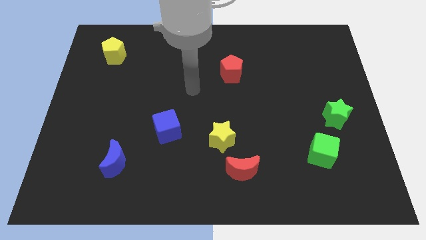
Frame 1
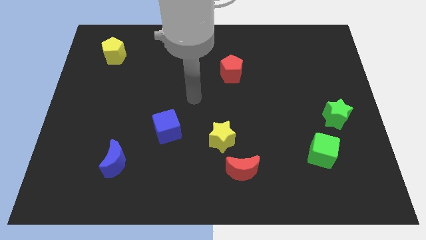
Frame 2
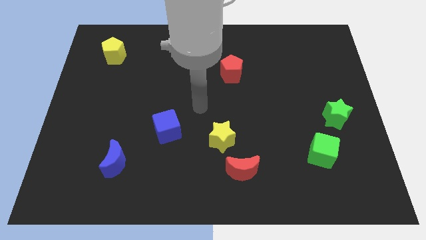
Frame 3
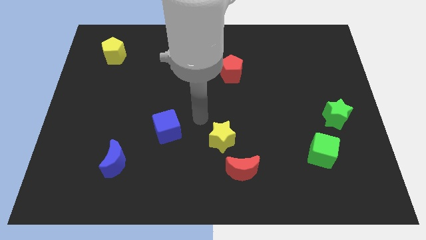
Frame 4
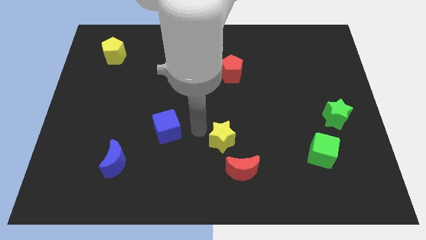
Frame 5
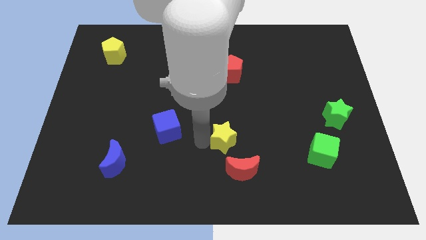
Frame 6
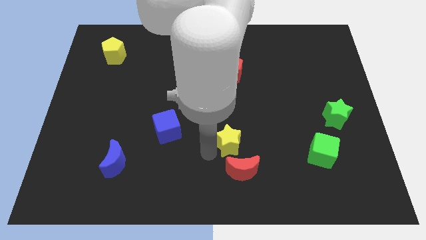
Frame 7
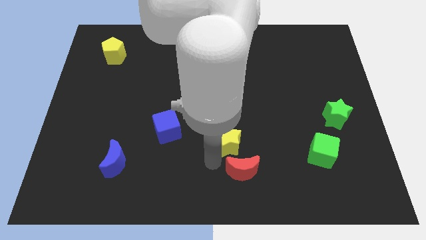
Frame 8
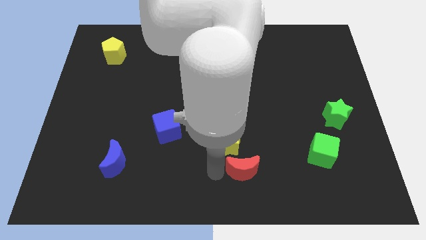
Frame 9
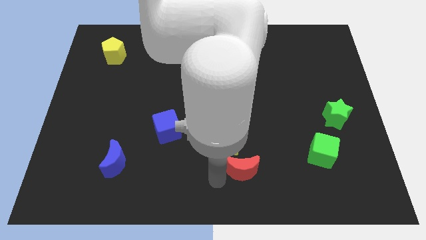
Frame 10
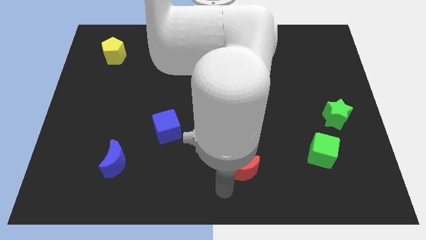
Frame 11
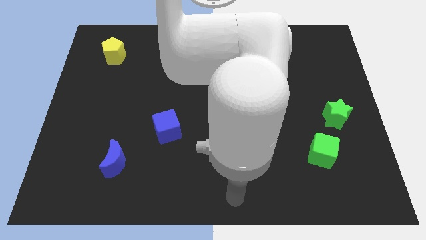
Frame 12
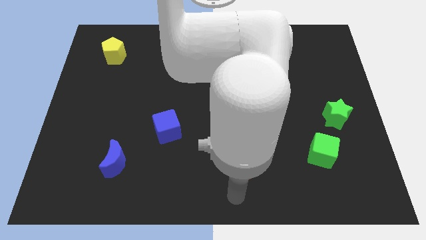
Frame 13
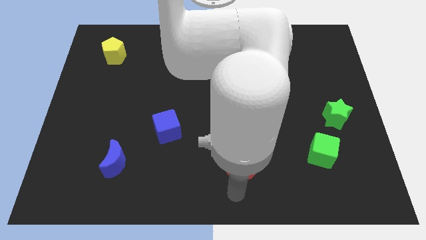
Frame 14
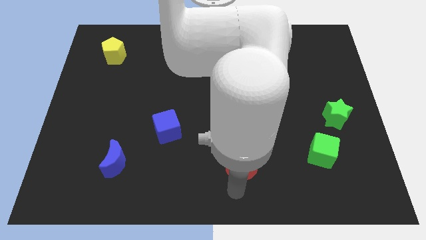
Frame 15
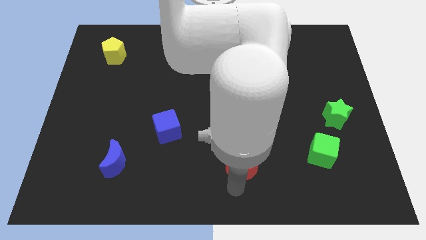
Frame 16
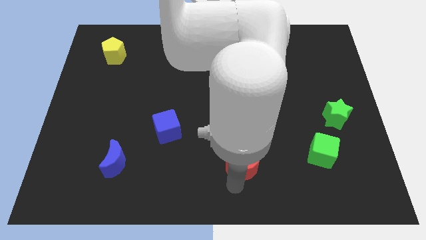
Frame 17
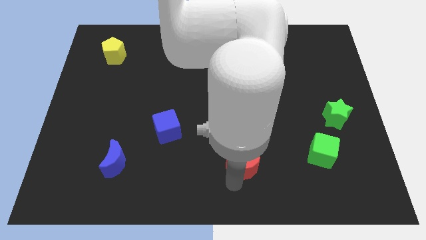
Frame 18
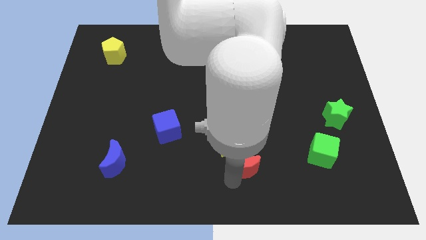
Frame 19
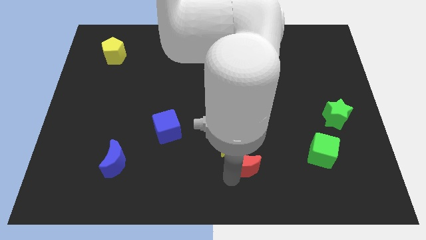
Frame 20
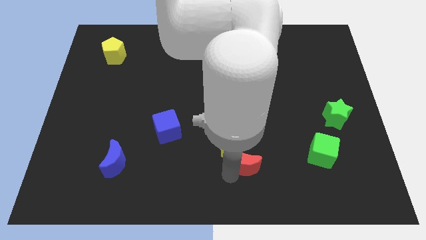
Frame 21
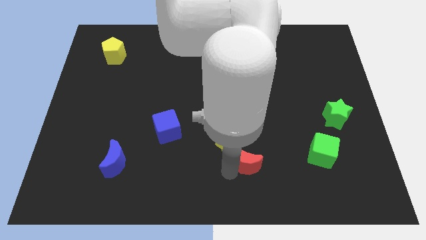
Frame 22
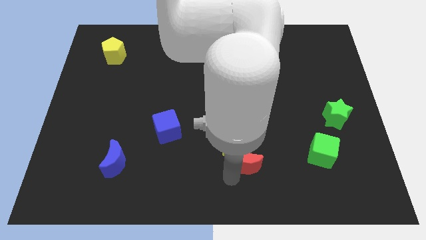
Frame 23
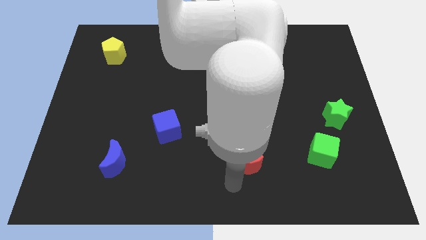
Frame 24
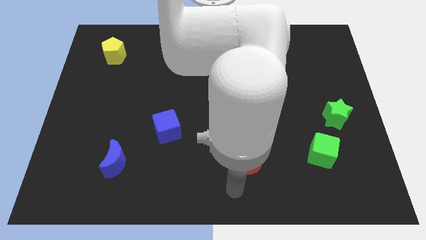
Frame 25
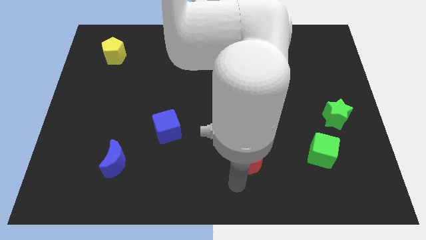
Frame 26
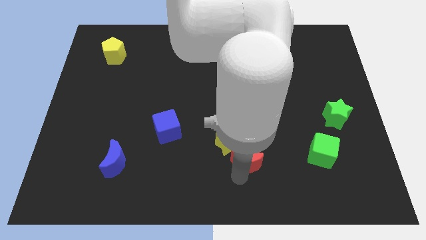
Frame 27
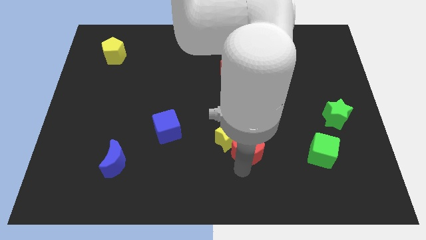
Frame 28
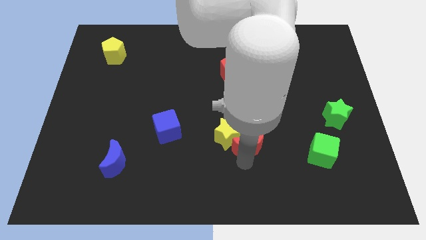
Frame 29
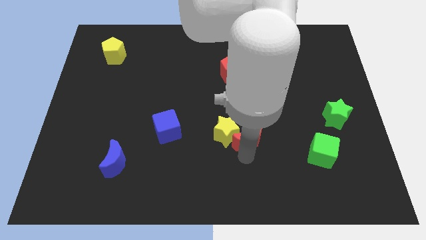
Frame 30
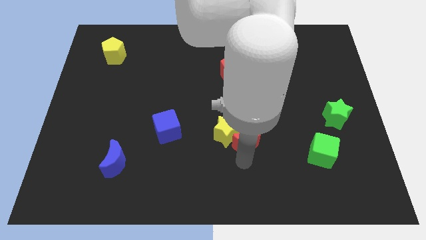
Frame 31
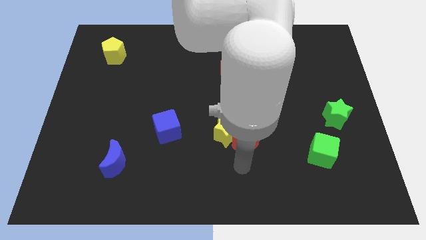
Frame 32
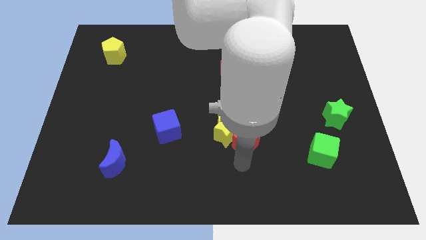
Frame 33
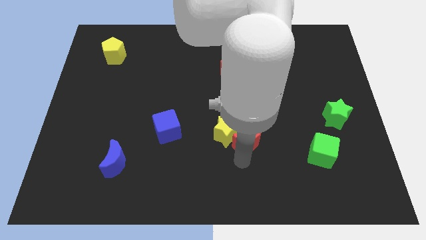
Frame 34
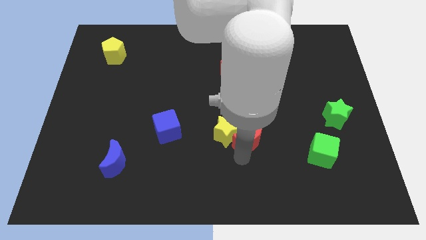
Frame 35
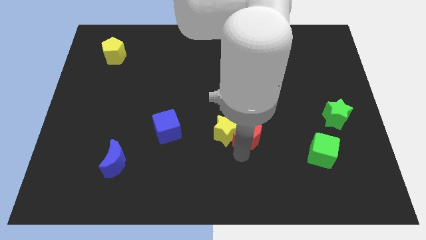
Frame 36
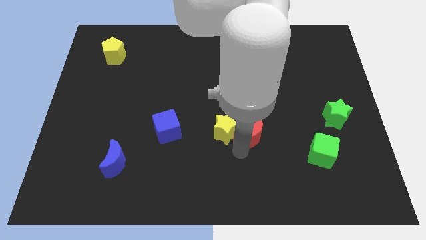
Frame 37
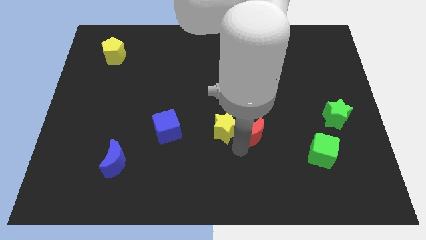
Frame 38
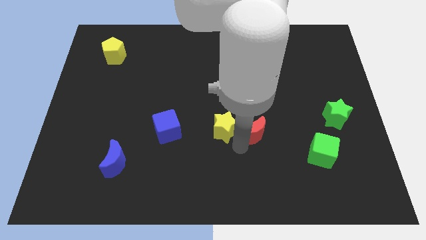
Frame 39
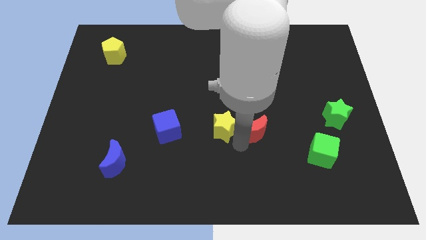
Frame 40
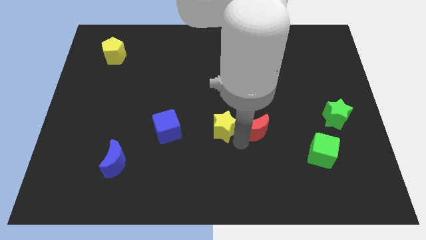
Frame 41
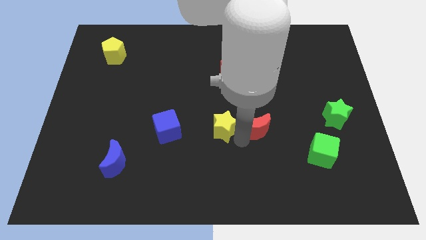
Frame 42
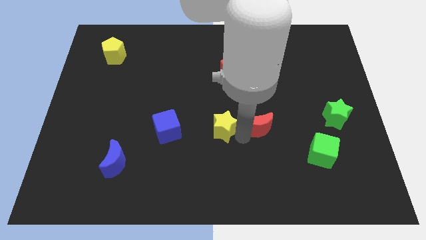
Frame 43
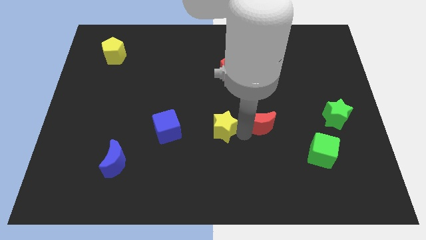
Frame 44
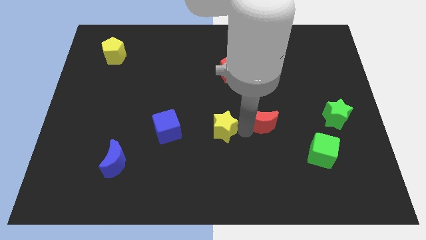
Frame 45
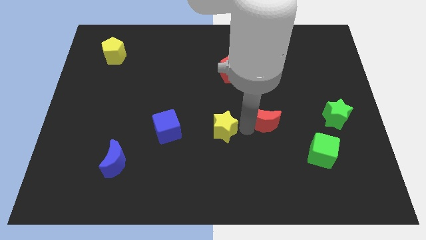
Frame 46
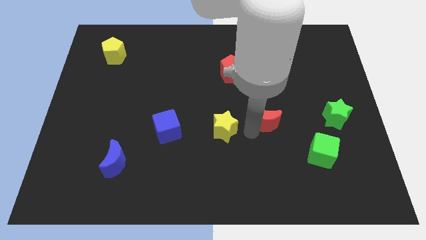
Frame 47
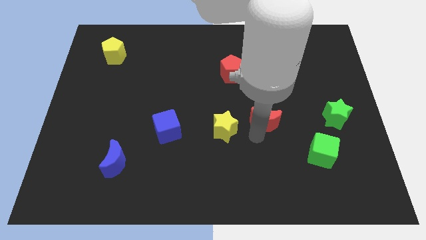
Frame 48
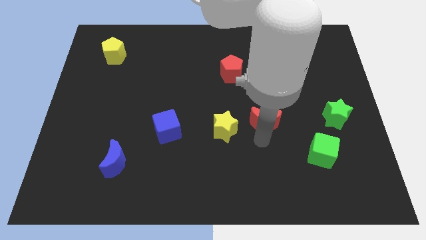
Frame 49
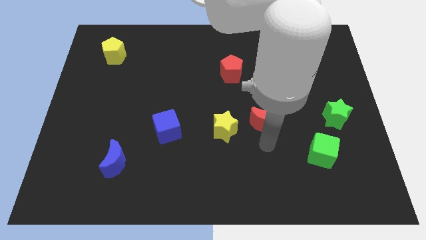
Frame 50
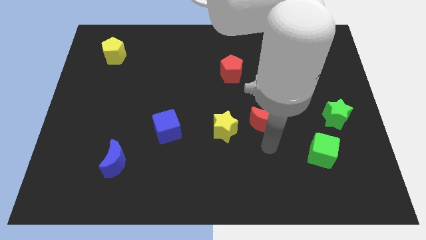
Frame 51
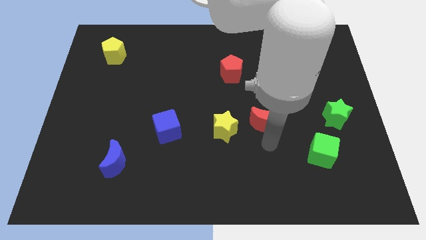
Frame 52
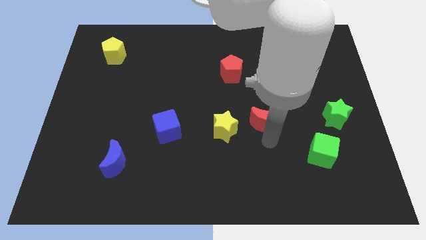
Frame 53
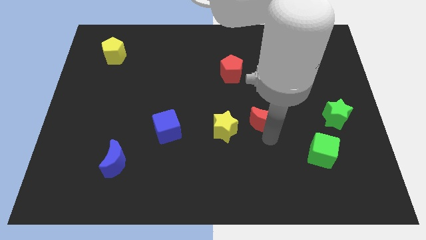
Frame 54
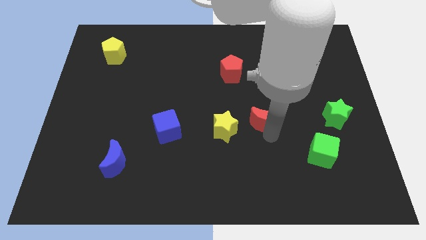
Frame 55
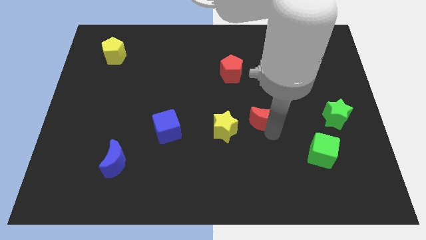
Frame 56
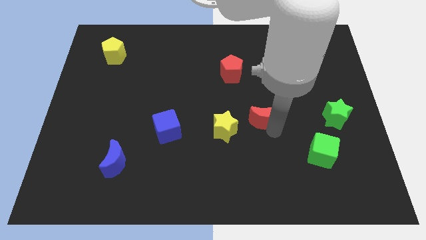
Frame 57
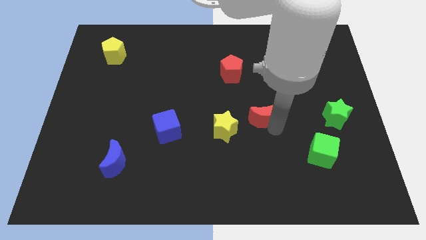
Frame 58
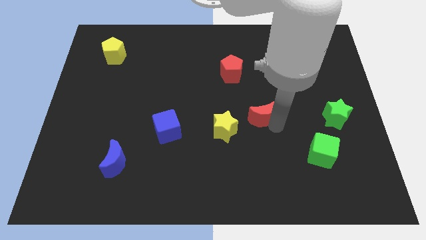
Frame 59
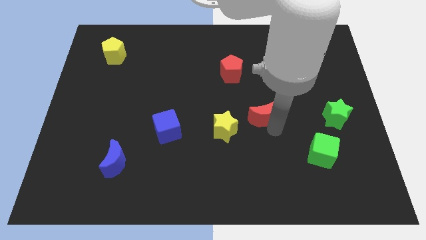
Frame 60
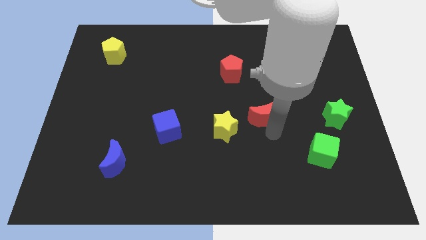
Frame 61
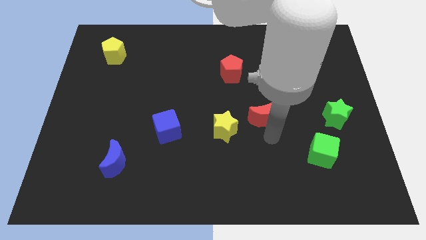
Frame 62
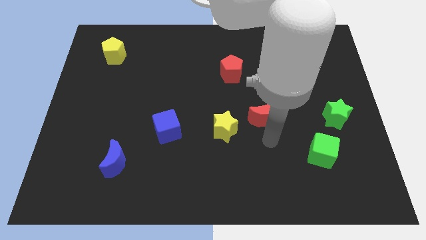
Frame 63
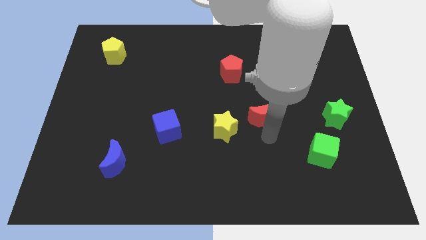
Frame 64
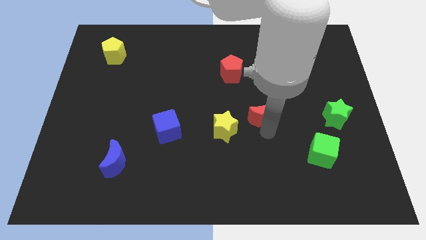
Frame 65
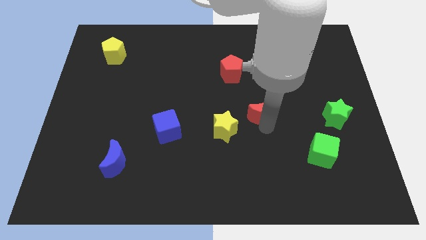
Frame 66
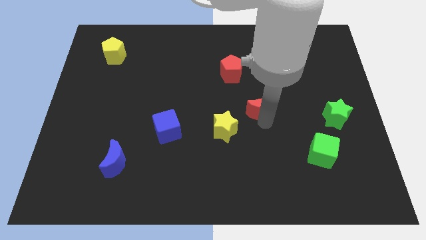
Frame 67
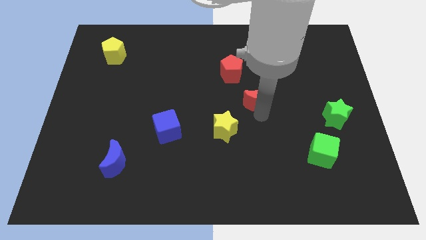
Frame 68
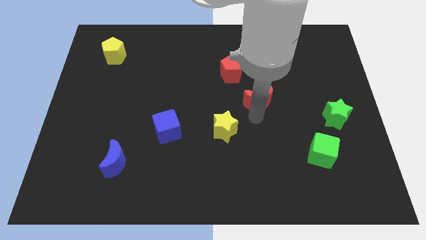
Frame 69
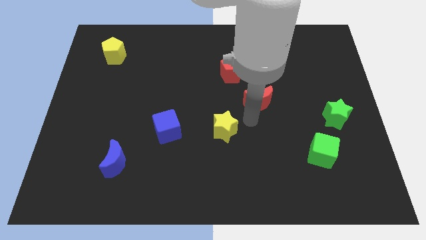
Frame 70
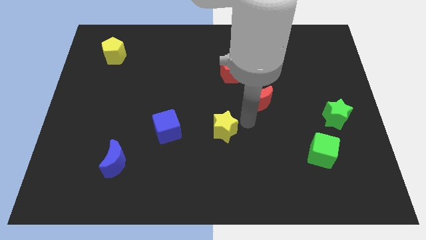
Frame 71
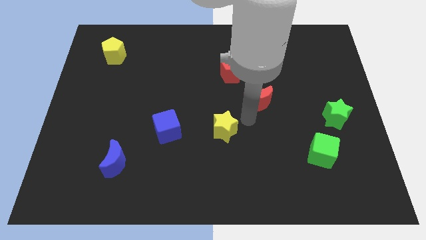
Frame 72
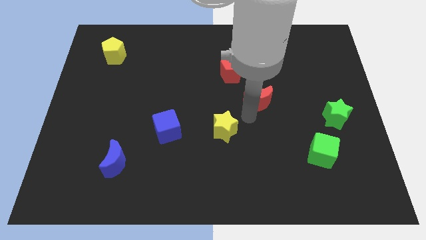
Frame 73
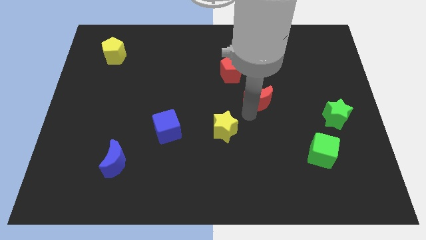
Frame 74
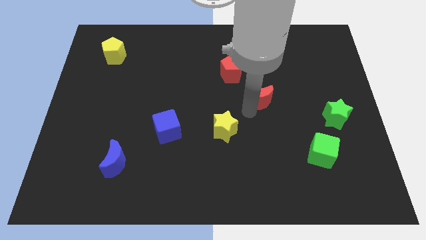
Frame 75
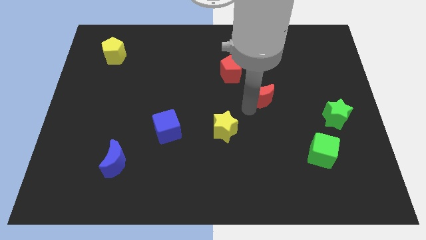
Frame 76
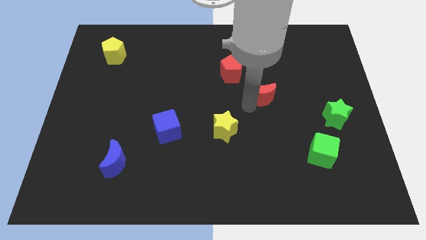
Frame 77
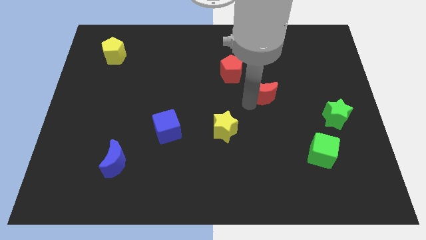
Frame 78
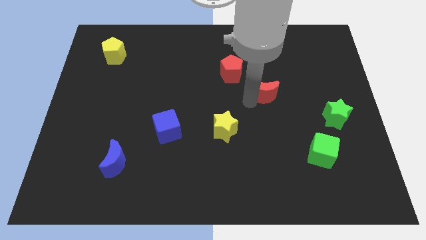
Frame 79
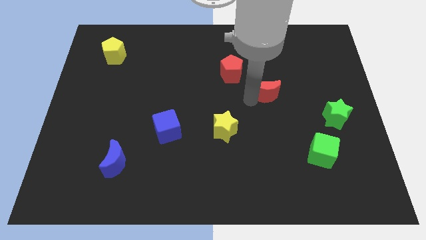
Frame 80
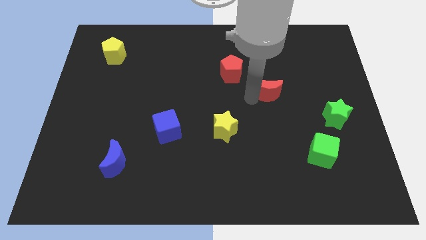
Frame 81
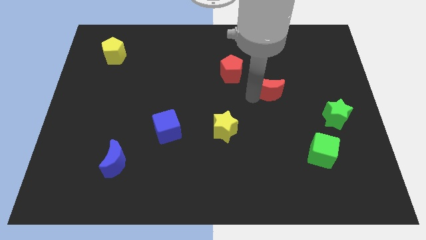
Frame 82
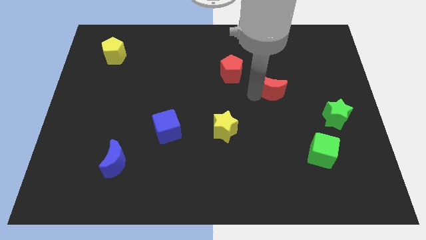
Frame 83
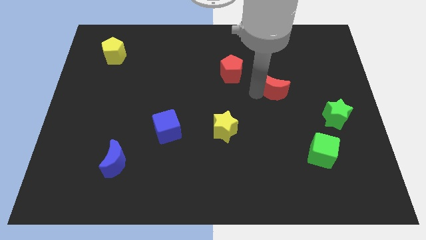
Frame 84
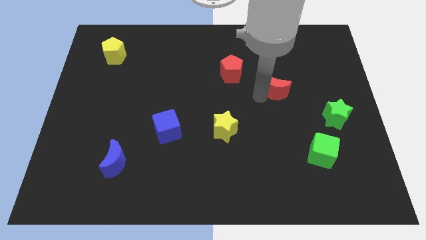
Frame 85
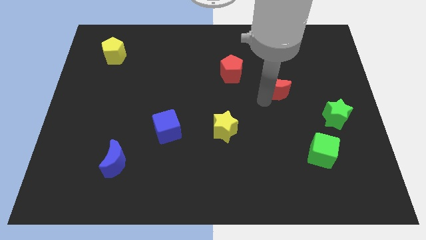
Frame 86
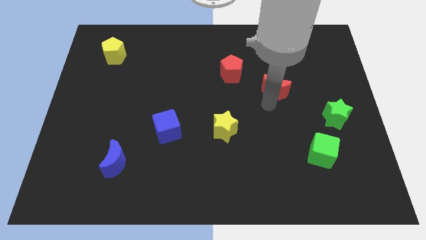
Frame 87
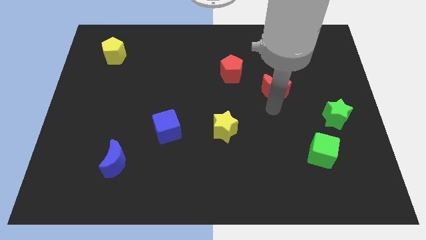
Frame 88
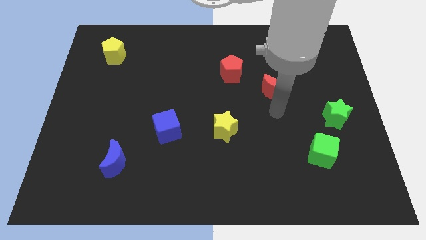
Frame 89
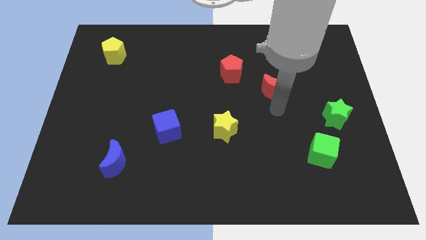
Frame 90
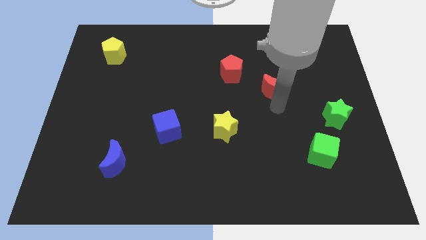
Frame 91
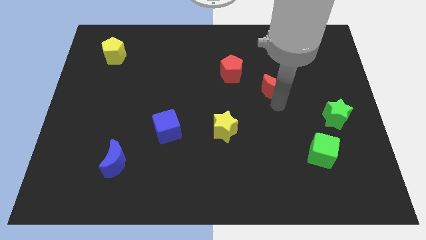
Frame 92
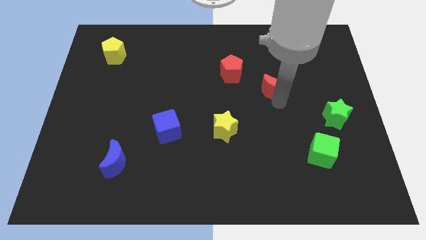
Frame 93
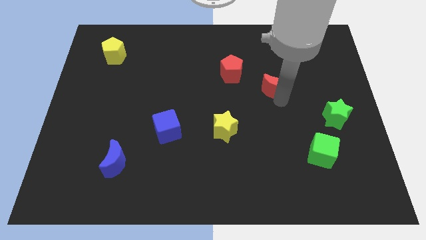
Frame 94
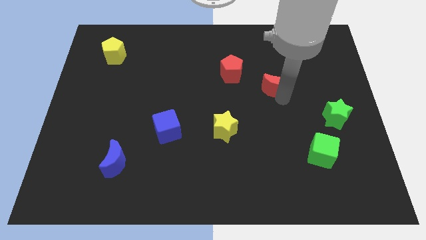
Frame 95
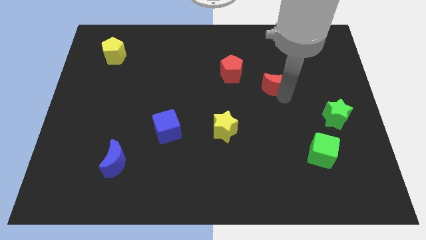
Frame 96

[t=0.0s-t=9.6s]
put the red moon just right of the red pentagon
